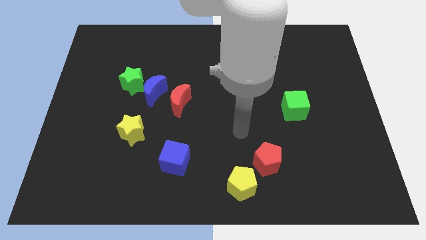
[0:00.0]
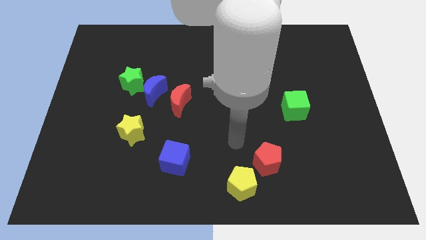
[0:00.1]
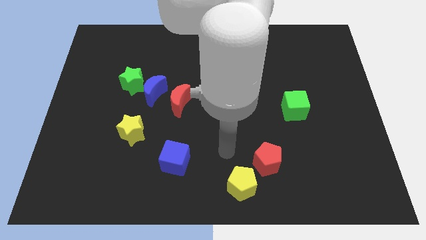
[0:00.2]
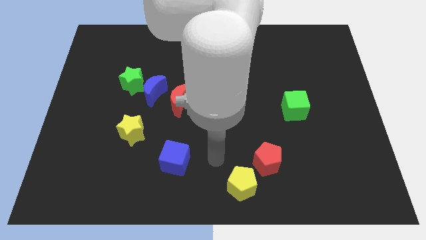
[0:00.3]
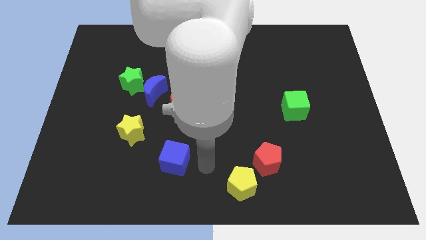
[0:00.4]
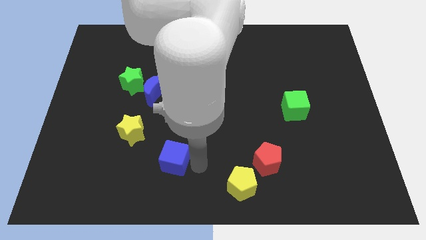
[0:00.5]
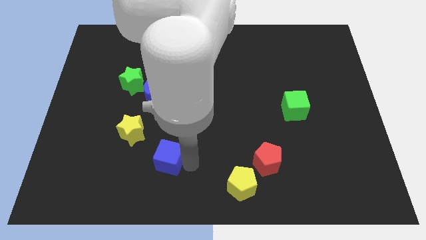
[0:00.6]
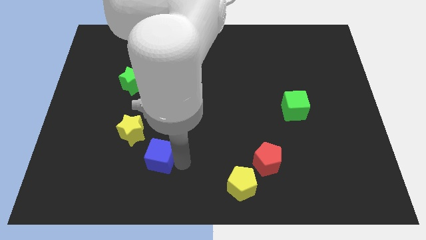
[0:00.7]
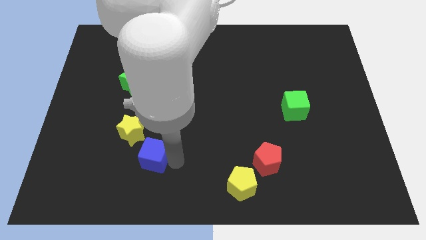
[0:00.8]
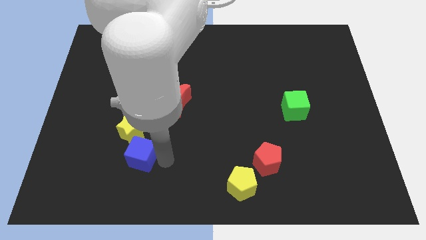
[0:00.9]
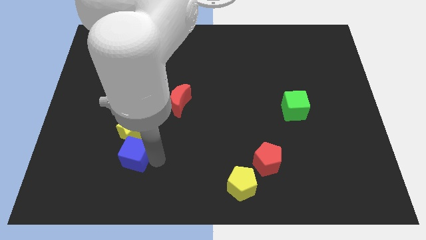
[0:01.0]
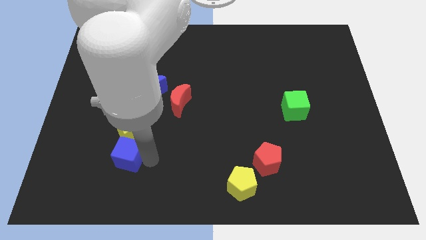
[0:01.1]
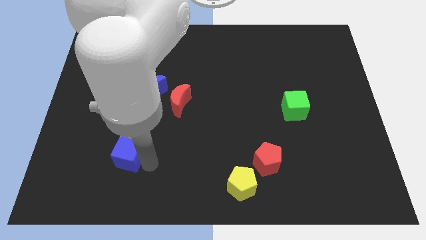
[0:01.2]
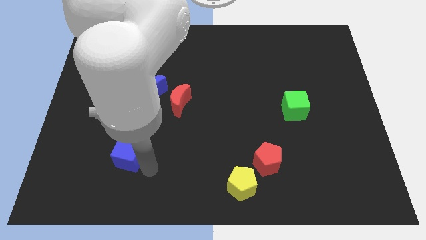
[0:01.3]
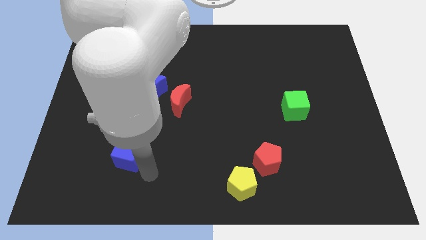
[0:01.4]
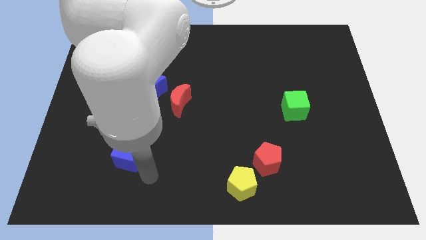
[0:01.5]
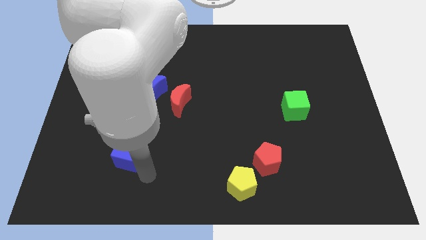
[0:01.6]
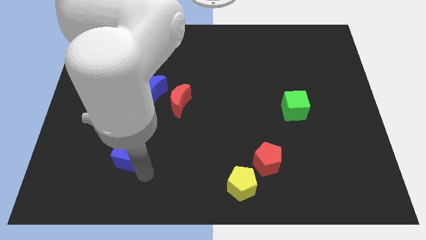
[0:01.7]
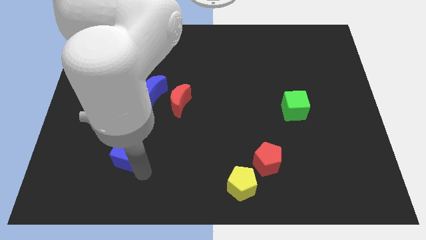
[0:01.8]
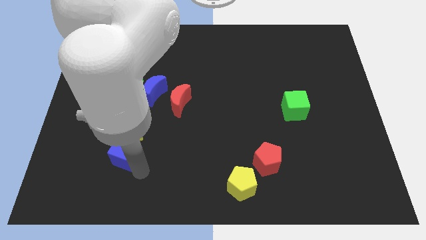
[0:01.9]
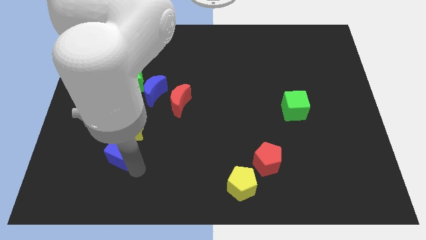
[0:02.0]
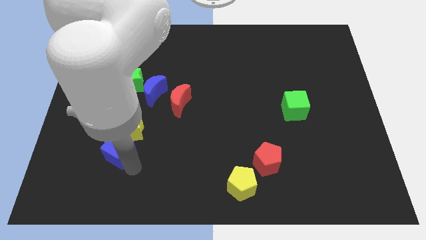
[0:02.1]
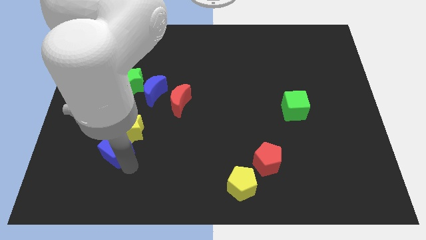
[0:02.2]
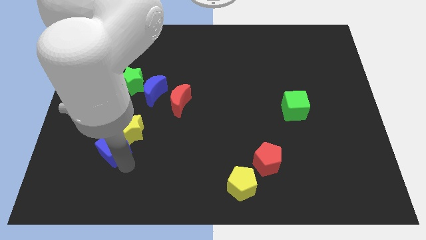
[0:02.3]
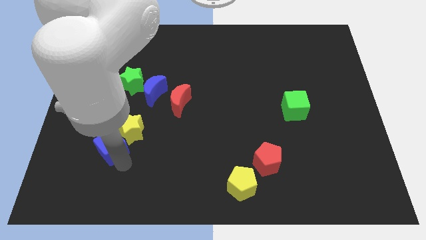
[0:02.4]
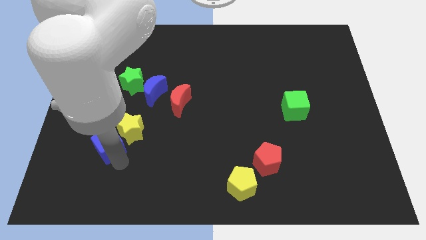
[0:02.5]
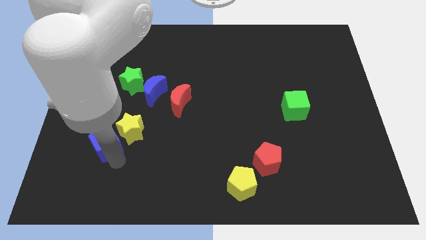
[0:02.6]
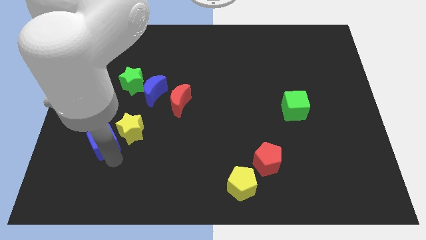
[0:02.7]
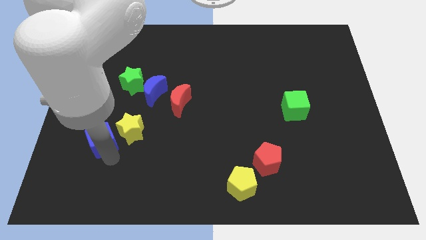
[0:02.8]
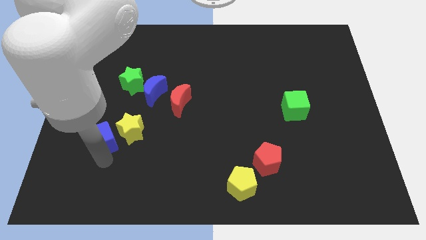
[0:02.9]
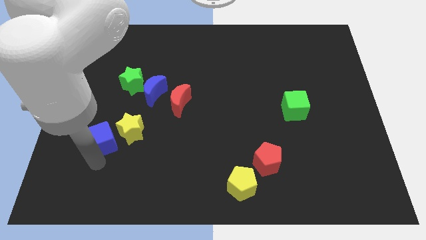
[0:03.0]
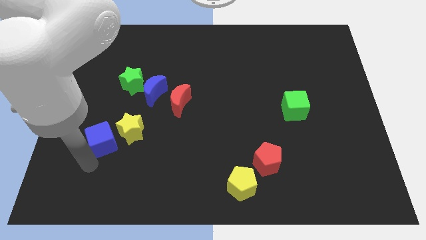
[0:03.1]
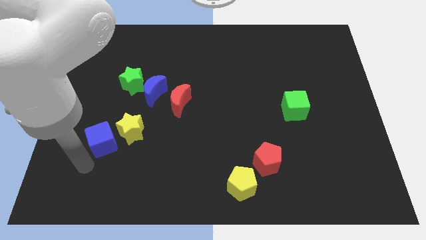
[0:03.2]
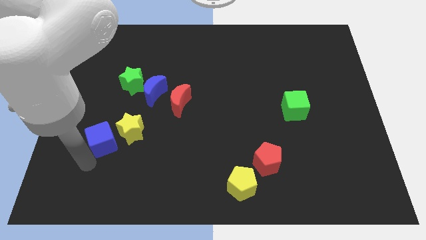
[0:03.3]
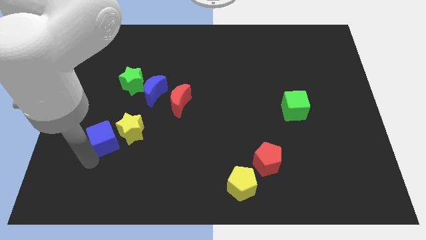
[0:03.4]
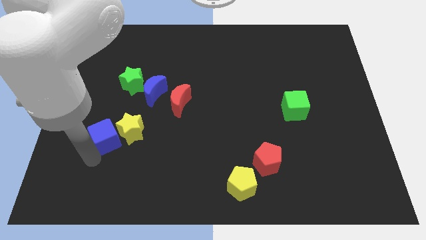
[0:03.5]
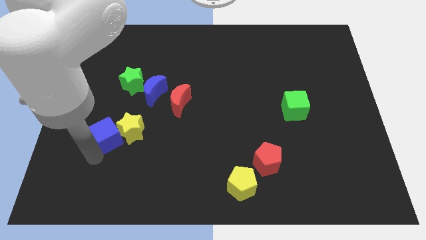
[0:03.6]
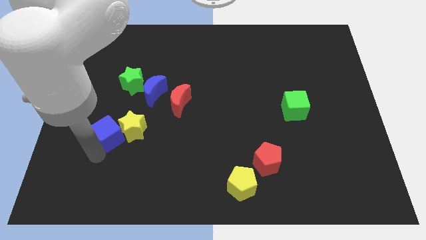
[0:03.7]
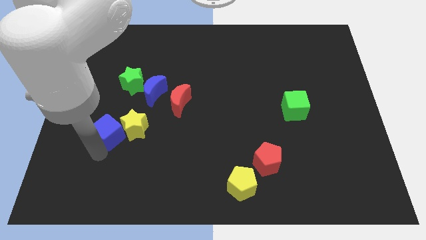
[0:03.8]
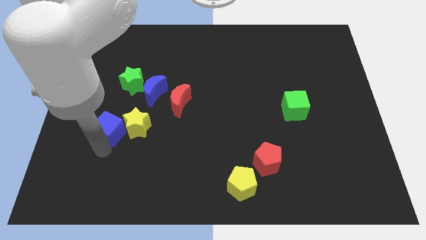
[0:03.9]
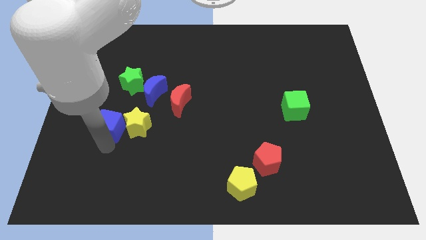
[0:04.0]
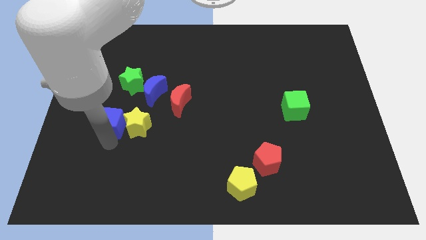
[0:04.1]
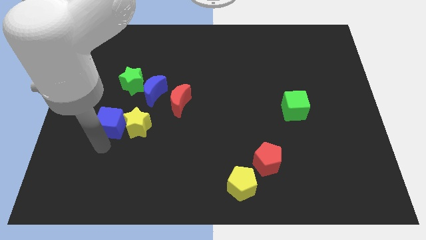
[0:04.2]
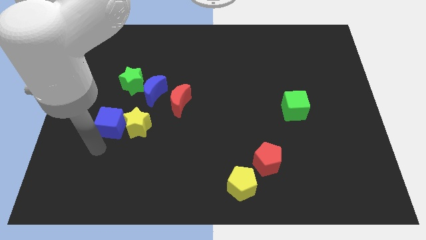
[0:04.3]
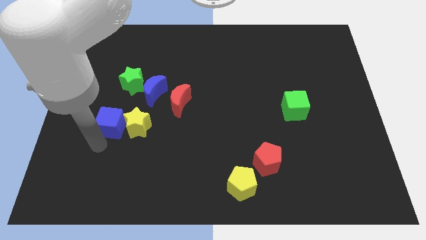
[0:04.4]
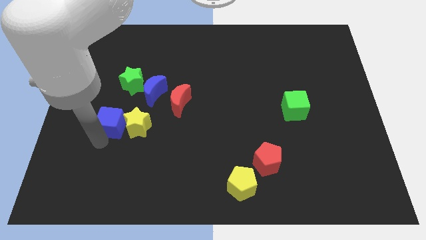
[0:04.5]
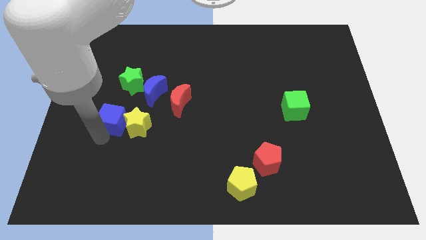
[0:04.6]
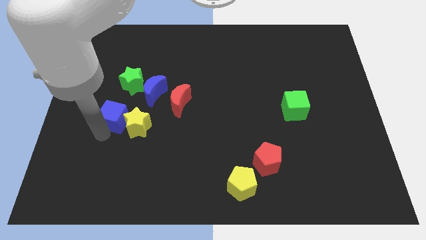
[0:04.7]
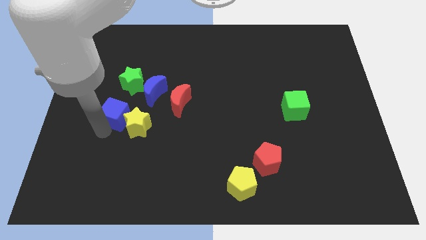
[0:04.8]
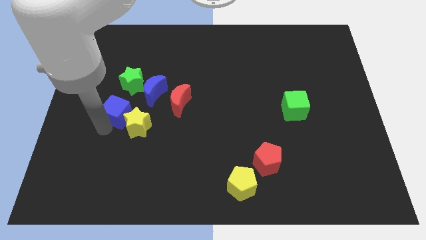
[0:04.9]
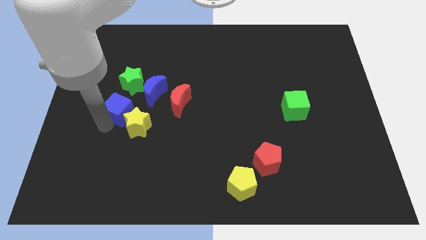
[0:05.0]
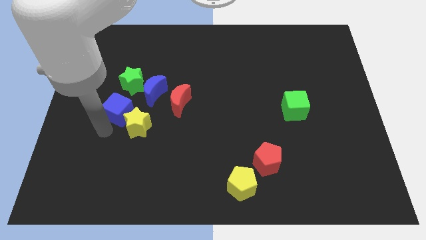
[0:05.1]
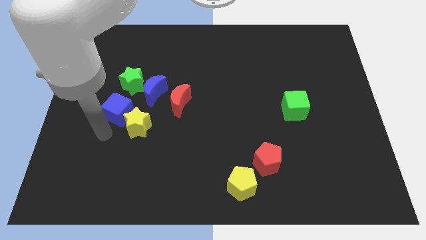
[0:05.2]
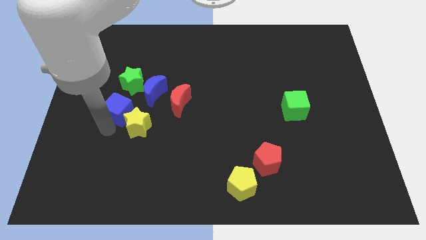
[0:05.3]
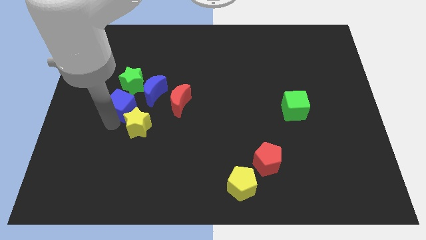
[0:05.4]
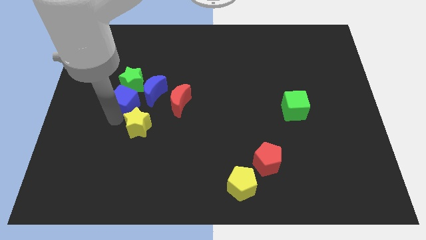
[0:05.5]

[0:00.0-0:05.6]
move the blue cube to the green star

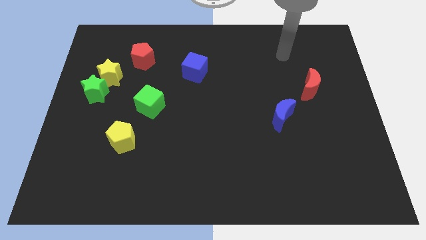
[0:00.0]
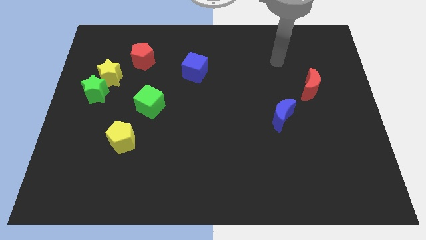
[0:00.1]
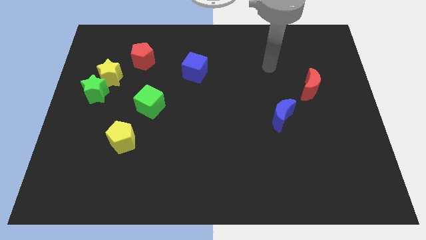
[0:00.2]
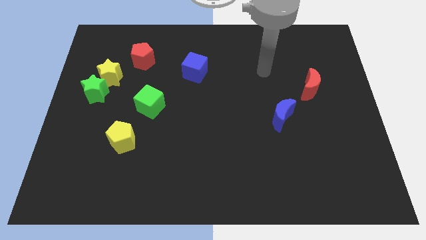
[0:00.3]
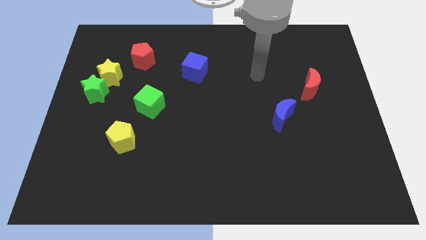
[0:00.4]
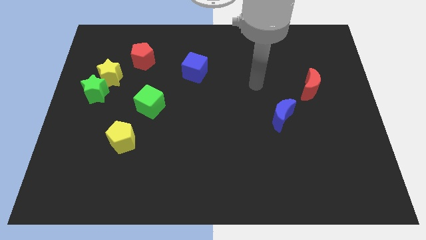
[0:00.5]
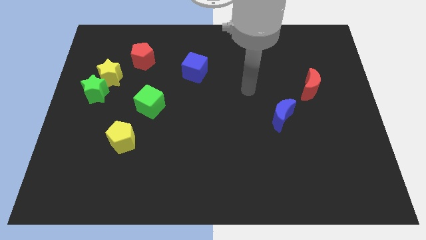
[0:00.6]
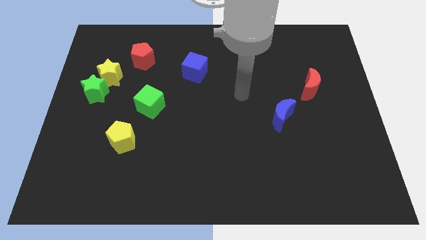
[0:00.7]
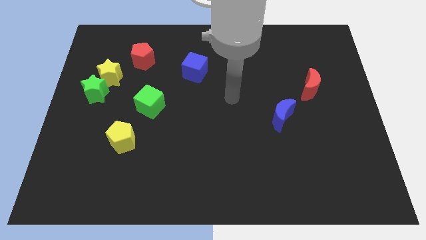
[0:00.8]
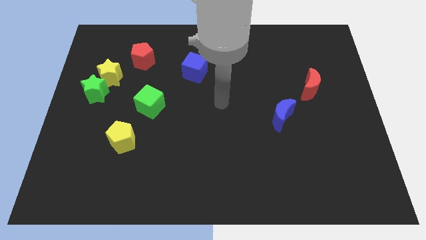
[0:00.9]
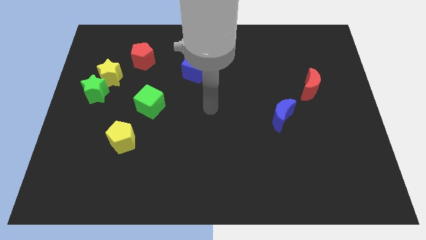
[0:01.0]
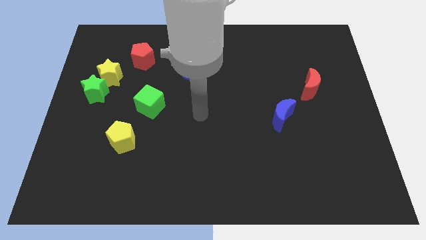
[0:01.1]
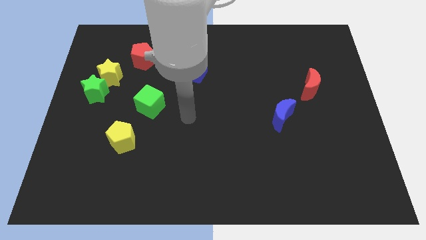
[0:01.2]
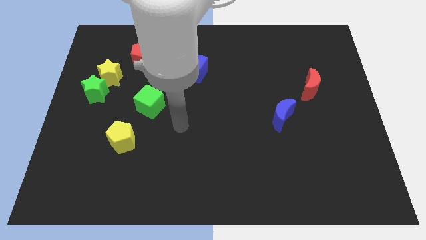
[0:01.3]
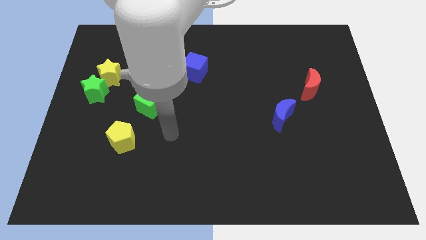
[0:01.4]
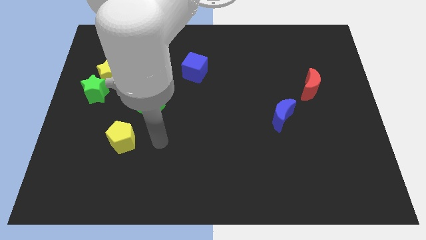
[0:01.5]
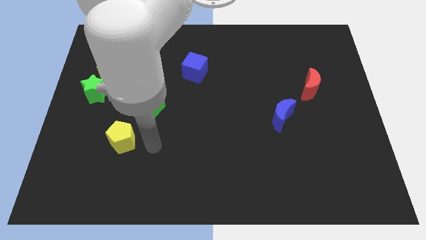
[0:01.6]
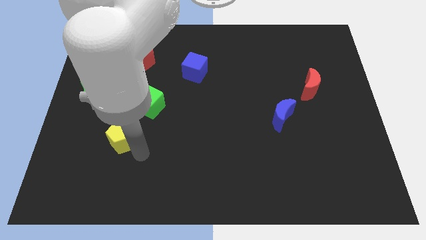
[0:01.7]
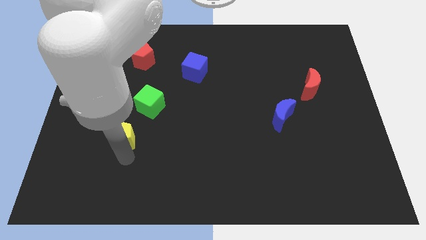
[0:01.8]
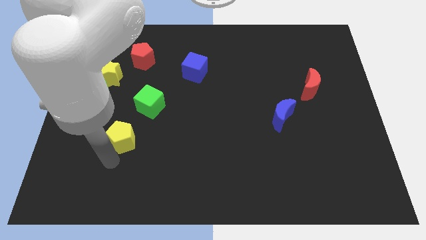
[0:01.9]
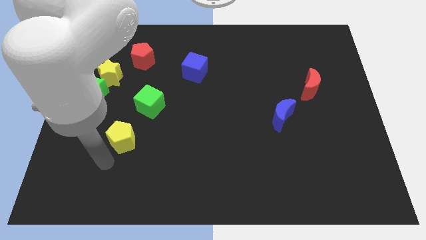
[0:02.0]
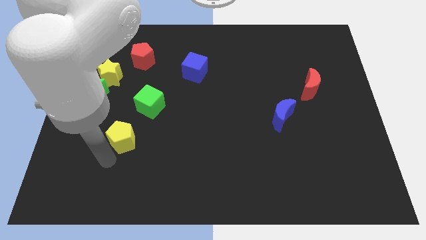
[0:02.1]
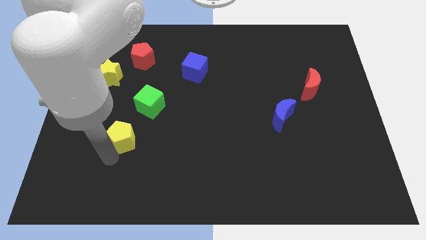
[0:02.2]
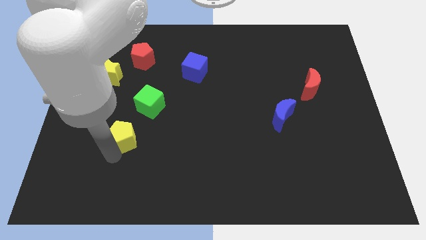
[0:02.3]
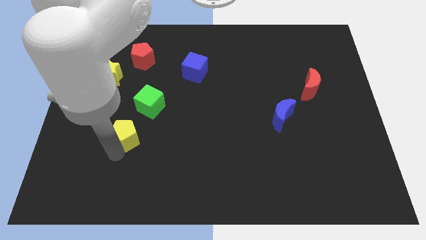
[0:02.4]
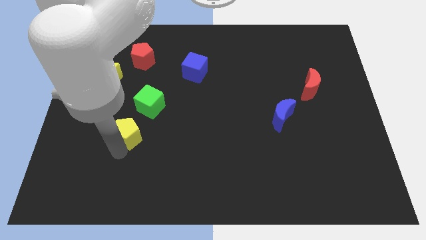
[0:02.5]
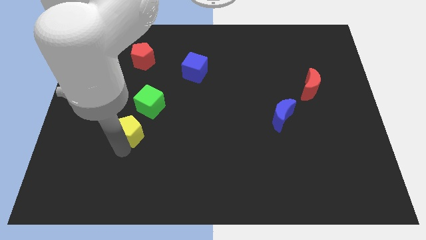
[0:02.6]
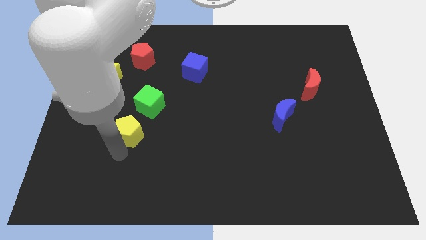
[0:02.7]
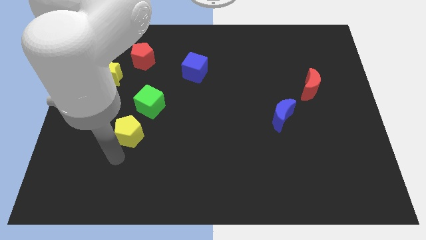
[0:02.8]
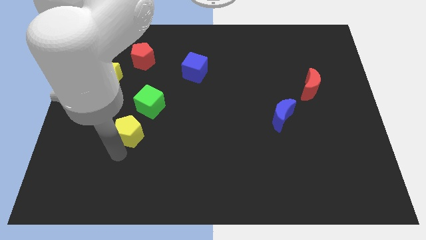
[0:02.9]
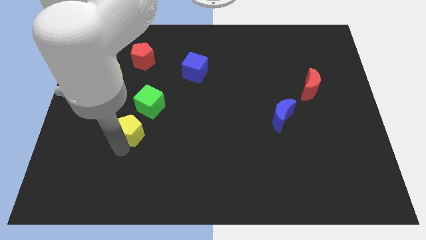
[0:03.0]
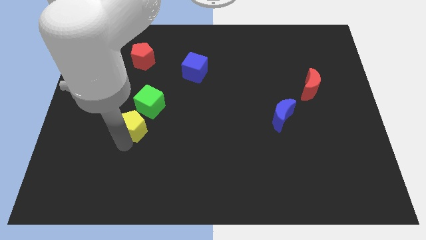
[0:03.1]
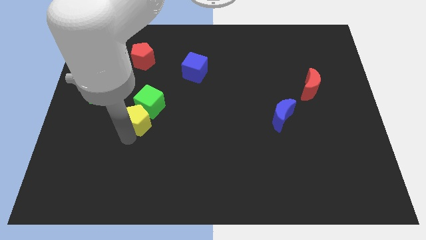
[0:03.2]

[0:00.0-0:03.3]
put the yellow pentagon to the green cube
